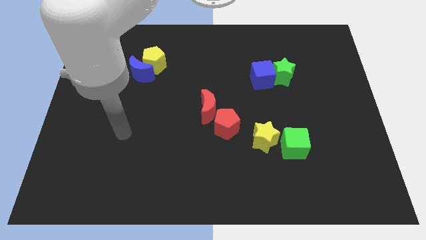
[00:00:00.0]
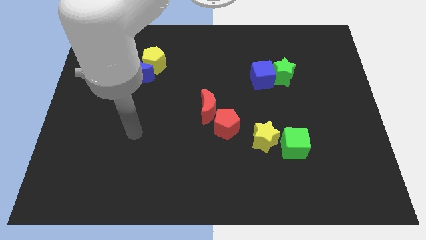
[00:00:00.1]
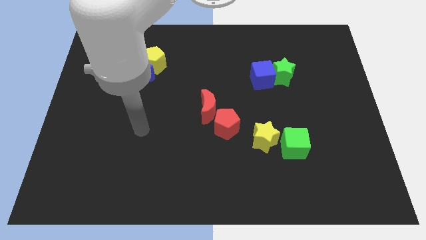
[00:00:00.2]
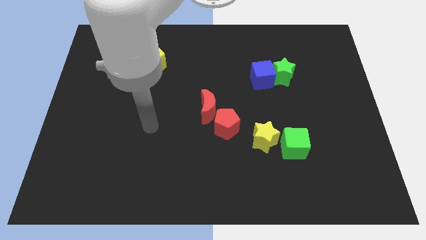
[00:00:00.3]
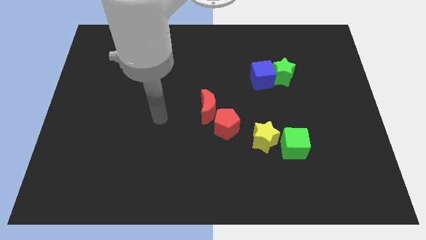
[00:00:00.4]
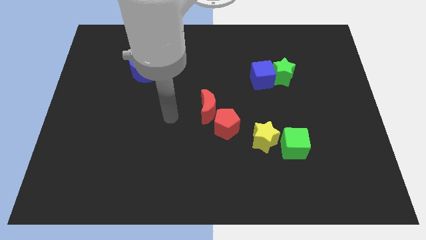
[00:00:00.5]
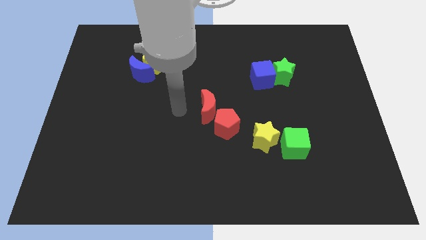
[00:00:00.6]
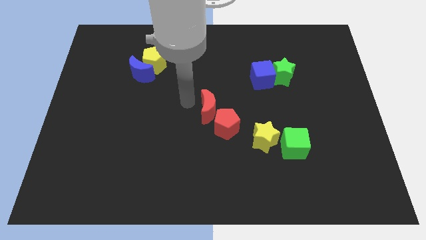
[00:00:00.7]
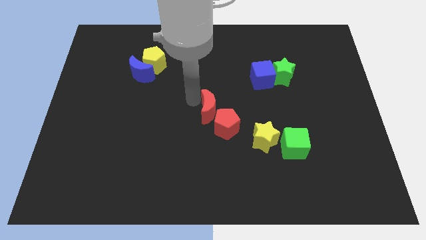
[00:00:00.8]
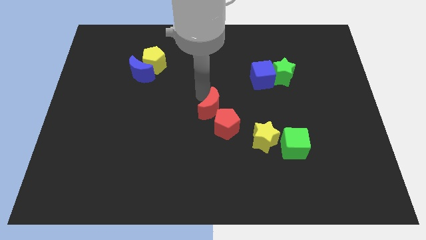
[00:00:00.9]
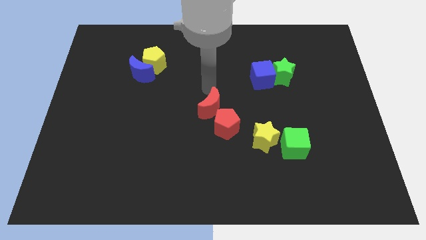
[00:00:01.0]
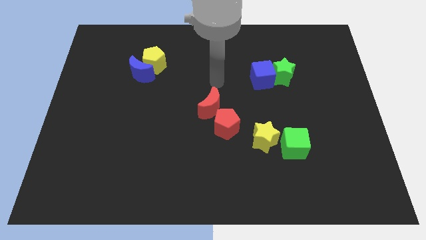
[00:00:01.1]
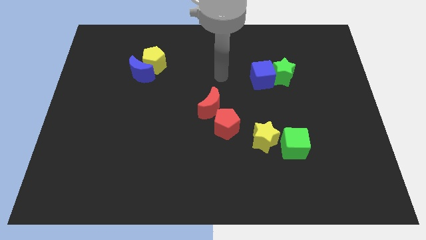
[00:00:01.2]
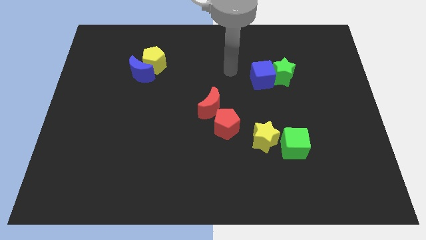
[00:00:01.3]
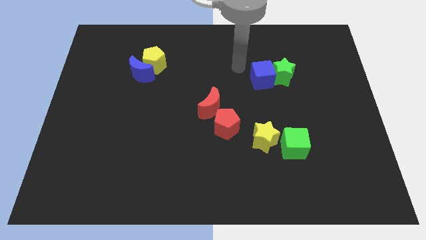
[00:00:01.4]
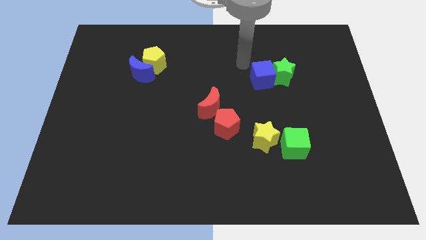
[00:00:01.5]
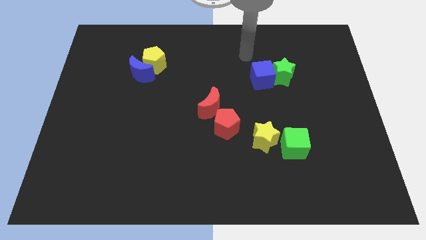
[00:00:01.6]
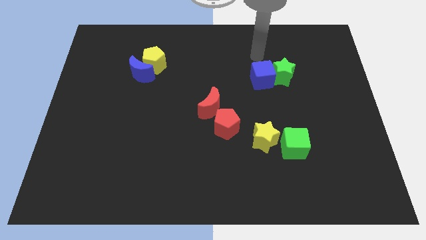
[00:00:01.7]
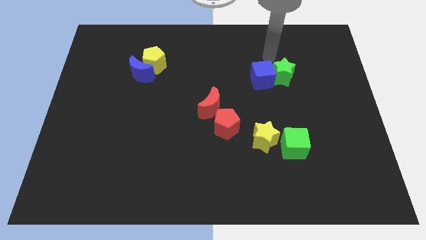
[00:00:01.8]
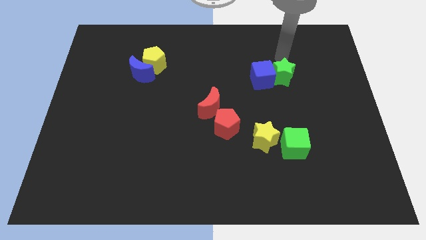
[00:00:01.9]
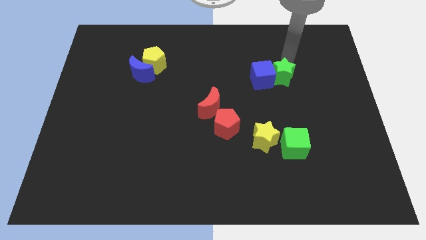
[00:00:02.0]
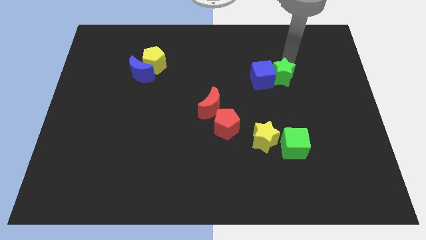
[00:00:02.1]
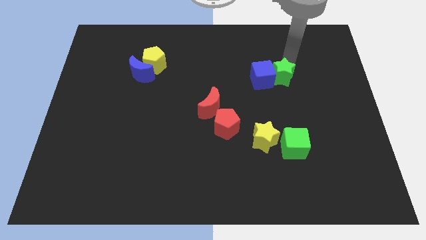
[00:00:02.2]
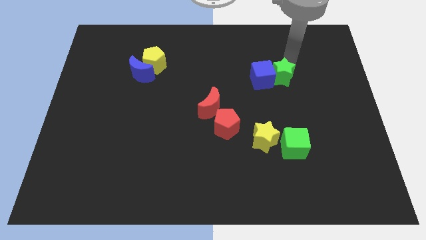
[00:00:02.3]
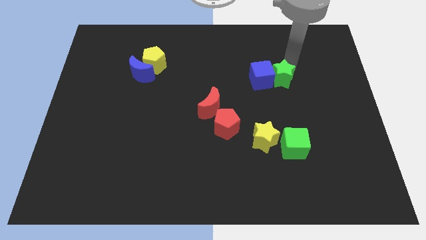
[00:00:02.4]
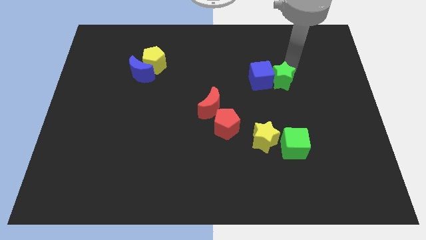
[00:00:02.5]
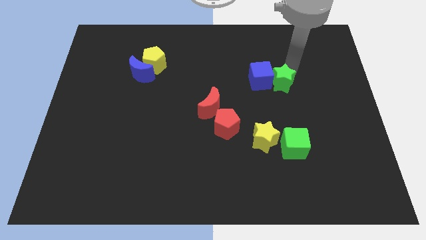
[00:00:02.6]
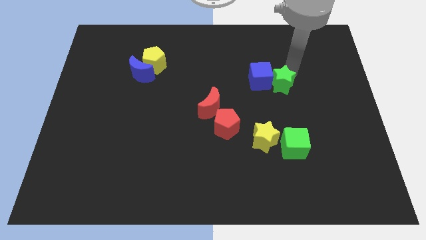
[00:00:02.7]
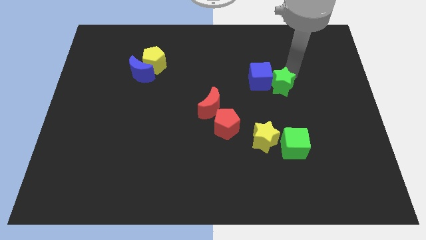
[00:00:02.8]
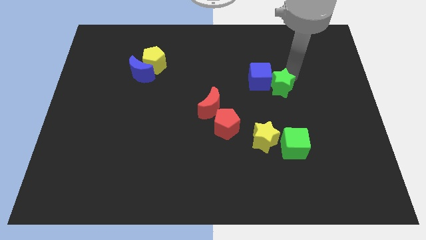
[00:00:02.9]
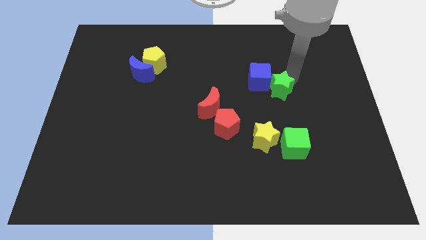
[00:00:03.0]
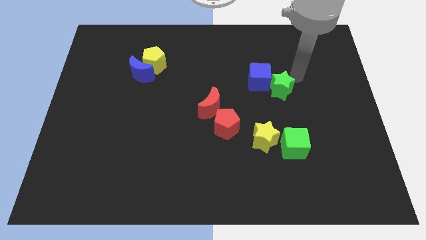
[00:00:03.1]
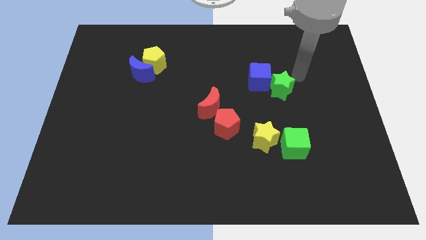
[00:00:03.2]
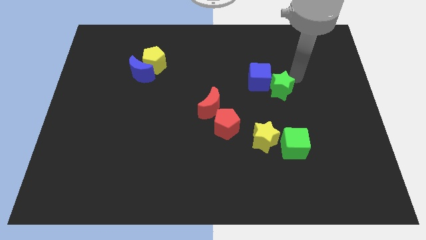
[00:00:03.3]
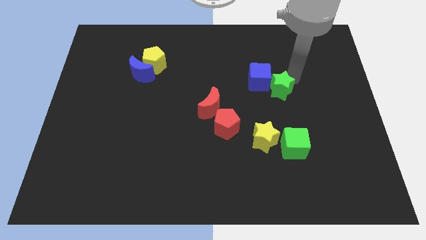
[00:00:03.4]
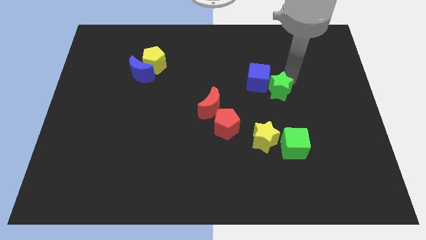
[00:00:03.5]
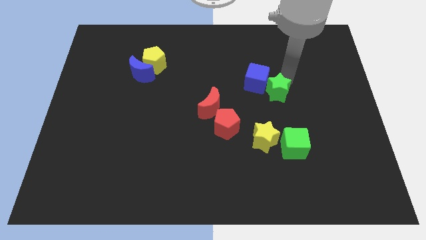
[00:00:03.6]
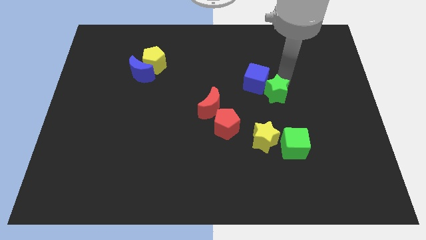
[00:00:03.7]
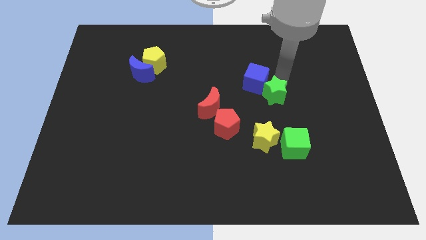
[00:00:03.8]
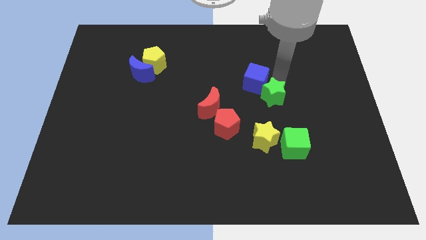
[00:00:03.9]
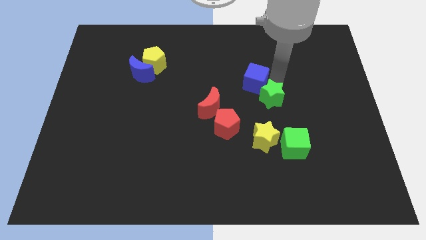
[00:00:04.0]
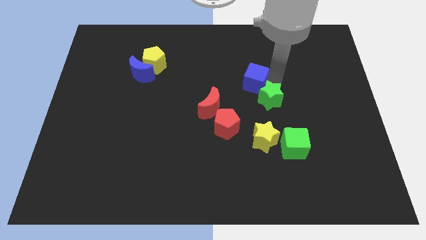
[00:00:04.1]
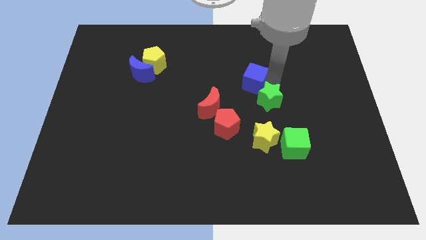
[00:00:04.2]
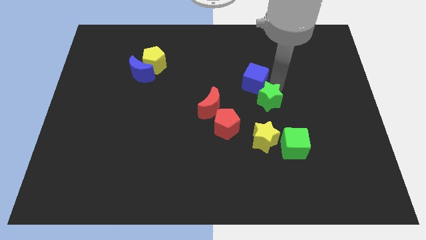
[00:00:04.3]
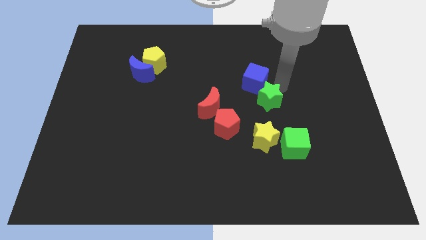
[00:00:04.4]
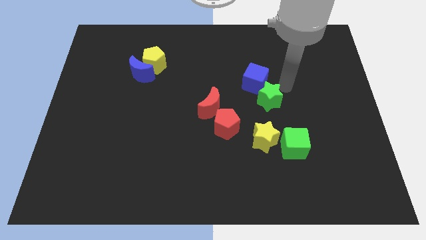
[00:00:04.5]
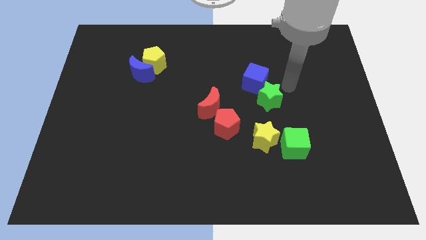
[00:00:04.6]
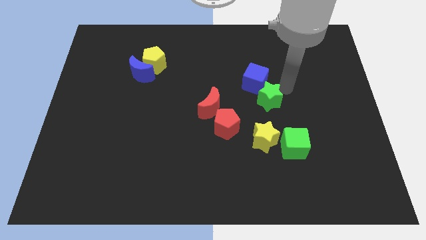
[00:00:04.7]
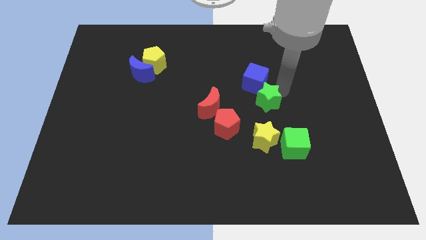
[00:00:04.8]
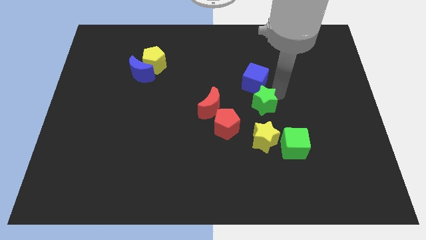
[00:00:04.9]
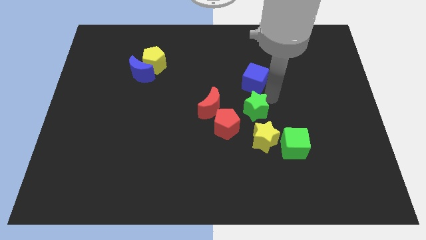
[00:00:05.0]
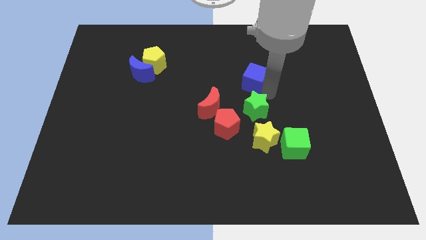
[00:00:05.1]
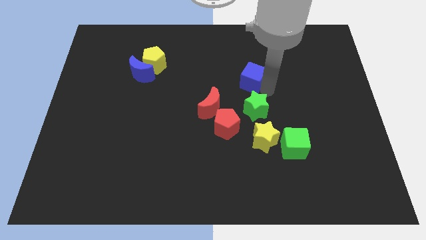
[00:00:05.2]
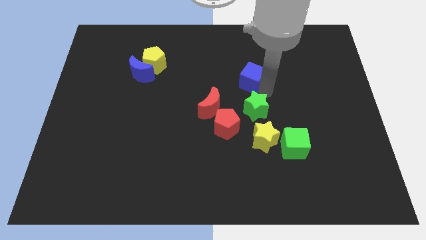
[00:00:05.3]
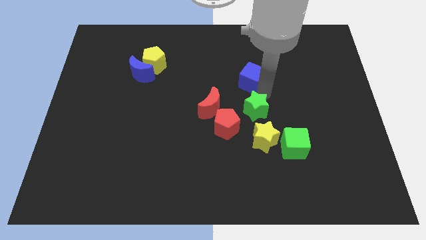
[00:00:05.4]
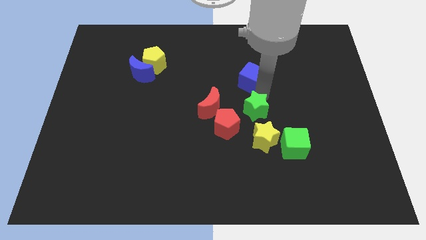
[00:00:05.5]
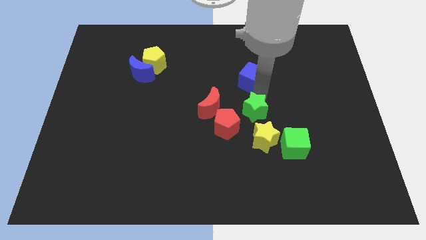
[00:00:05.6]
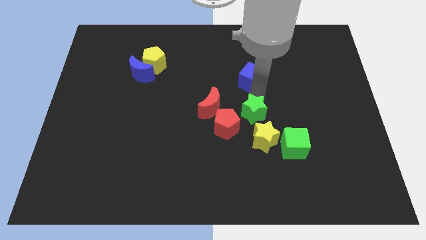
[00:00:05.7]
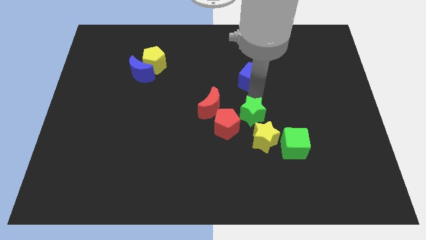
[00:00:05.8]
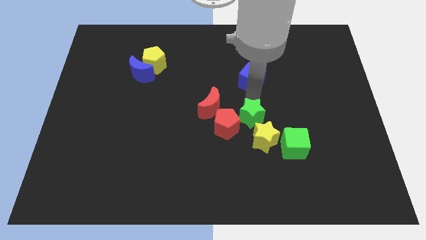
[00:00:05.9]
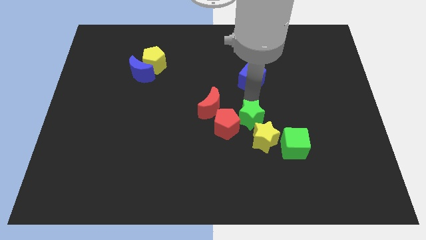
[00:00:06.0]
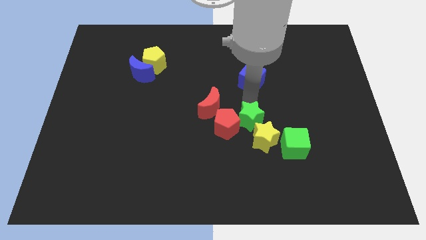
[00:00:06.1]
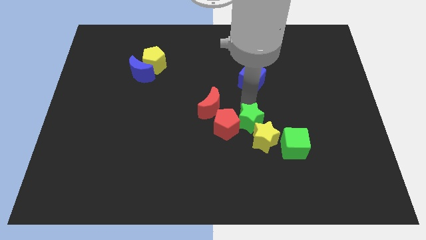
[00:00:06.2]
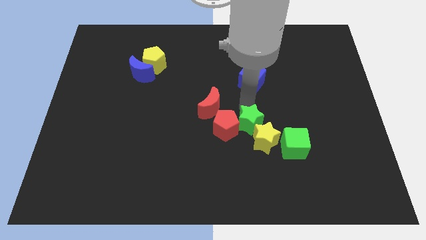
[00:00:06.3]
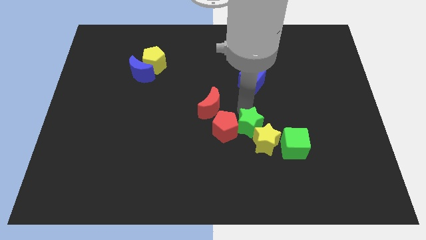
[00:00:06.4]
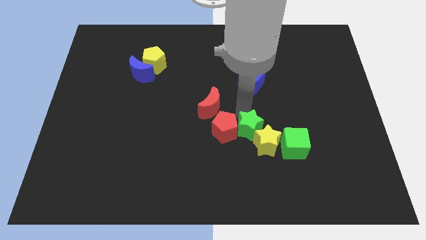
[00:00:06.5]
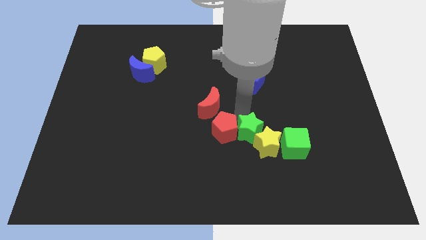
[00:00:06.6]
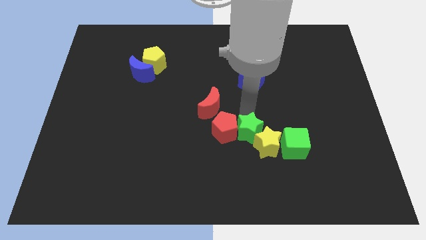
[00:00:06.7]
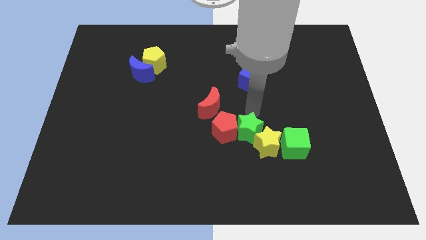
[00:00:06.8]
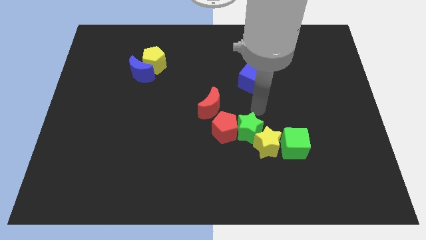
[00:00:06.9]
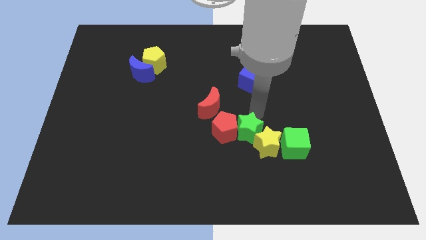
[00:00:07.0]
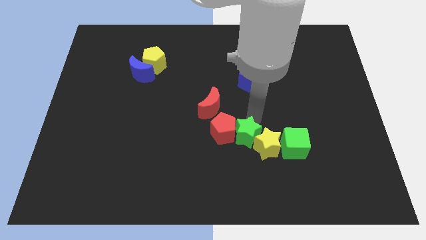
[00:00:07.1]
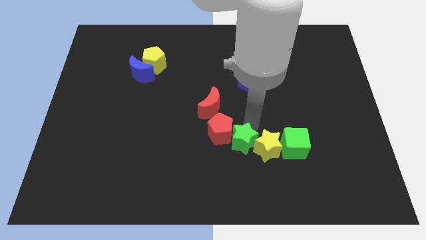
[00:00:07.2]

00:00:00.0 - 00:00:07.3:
slide the green star downwards and then to the left

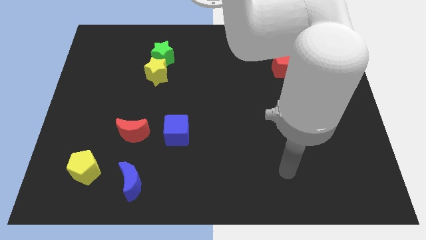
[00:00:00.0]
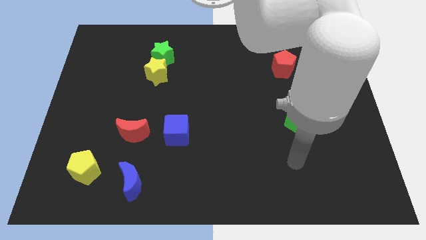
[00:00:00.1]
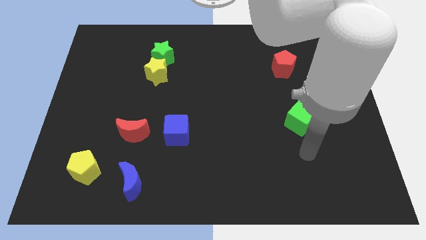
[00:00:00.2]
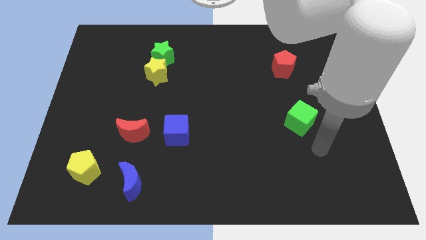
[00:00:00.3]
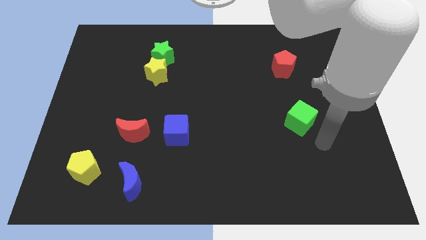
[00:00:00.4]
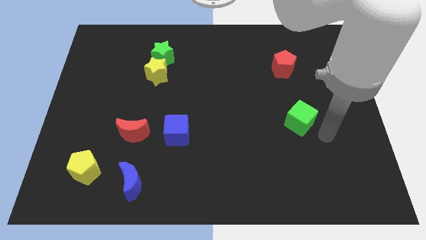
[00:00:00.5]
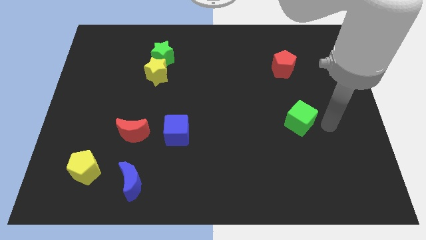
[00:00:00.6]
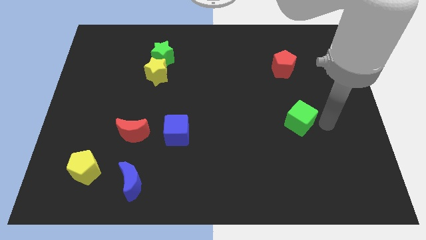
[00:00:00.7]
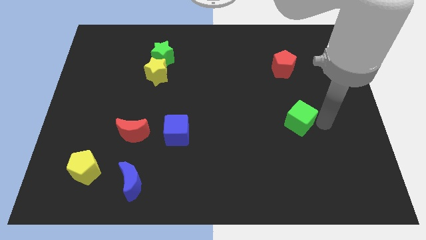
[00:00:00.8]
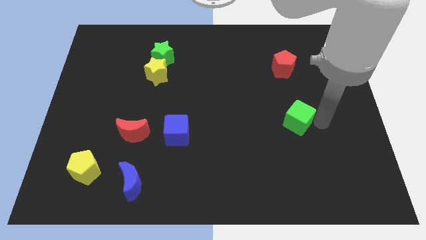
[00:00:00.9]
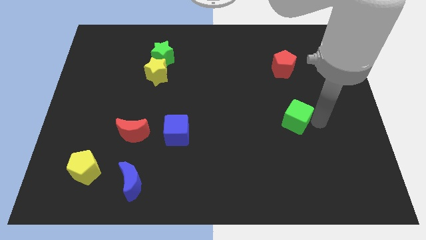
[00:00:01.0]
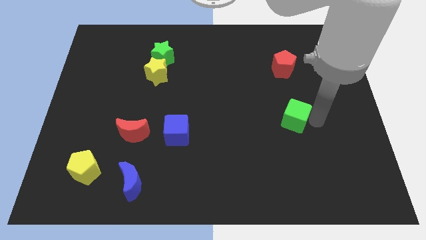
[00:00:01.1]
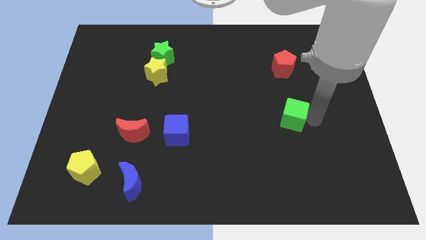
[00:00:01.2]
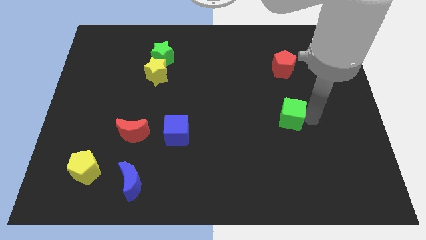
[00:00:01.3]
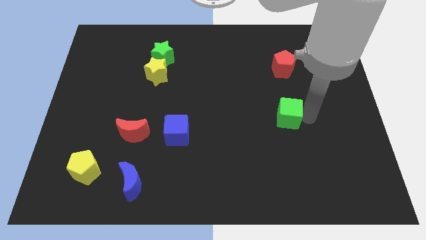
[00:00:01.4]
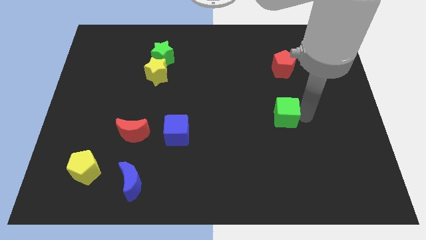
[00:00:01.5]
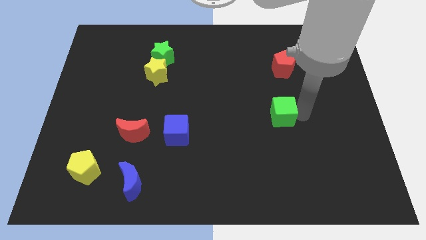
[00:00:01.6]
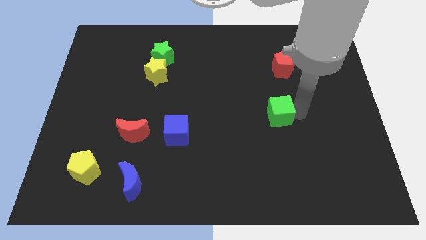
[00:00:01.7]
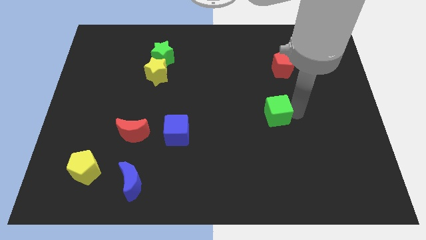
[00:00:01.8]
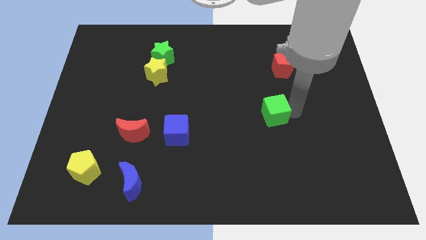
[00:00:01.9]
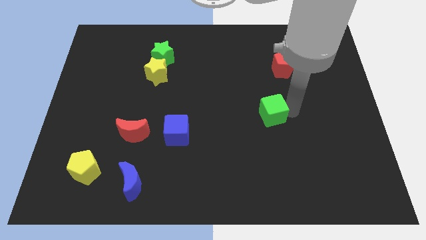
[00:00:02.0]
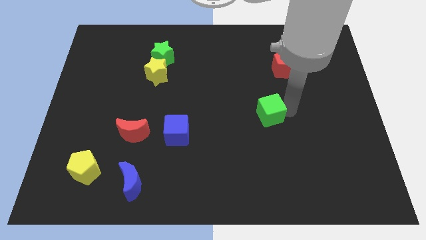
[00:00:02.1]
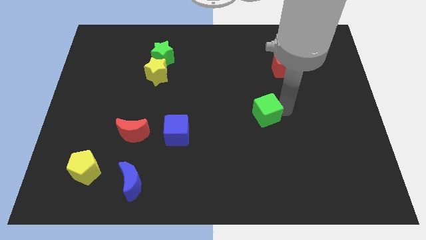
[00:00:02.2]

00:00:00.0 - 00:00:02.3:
move the green cube left slightly
